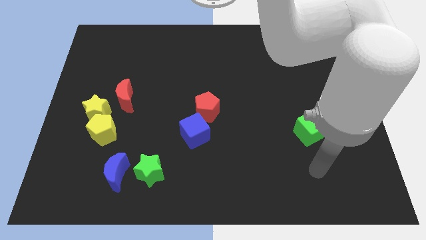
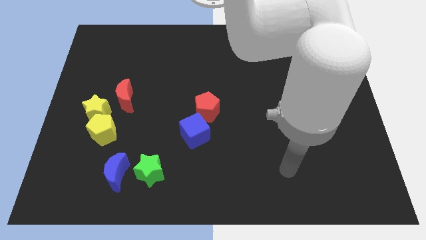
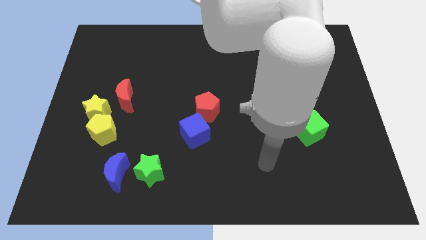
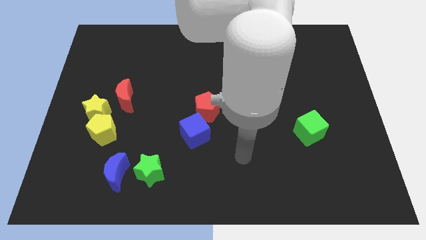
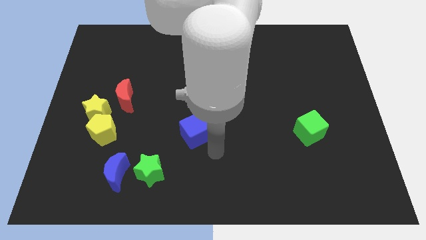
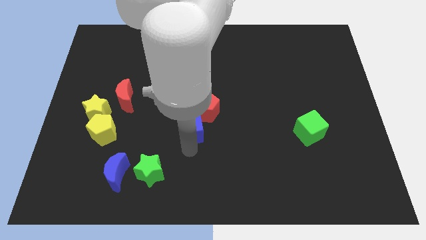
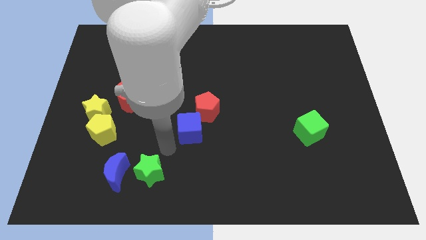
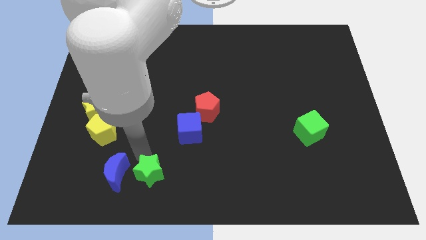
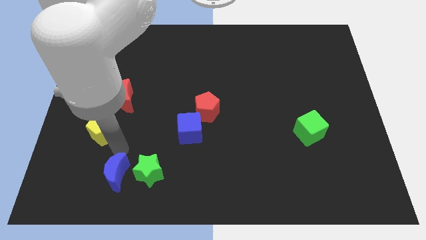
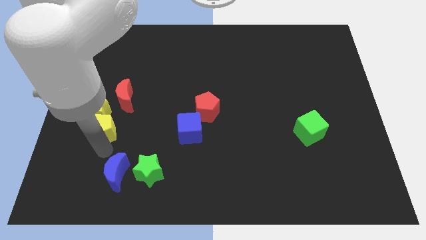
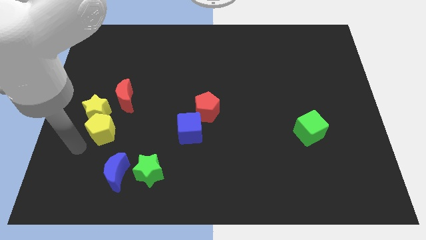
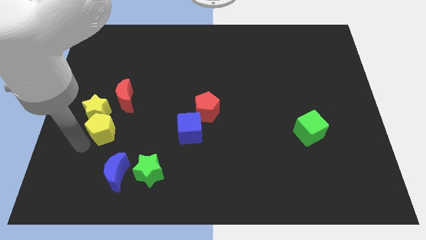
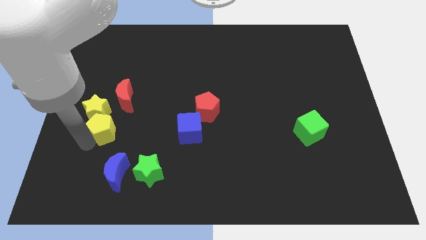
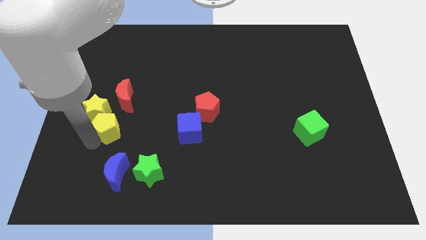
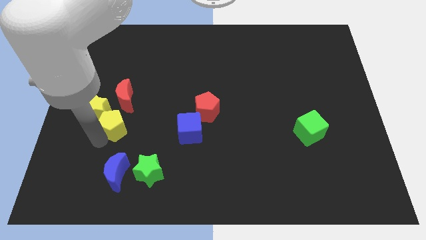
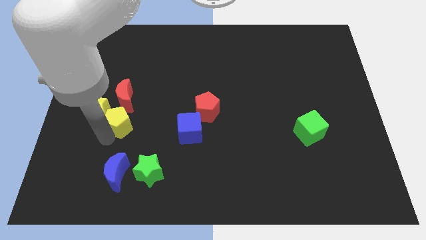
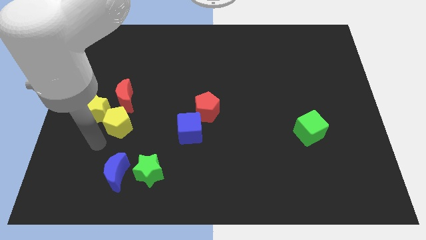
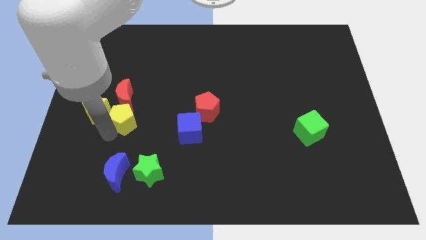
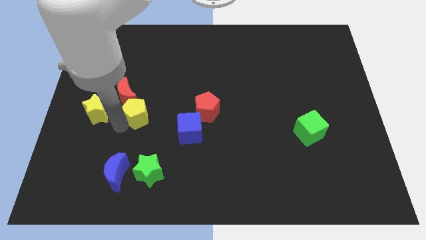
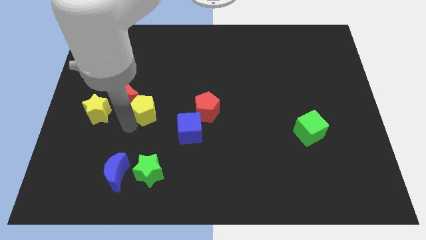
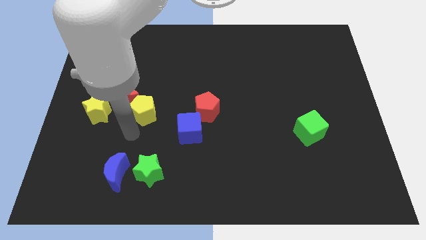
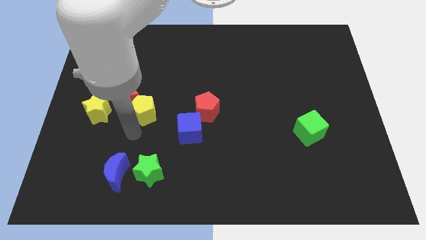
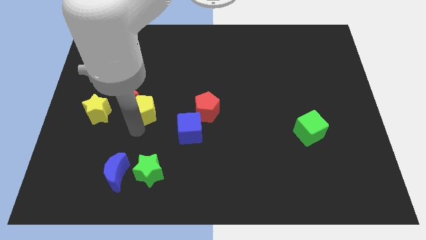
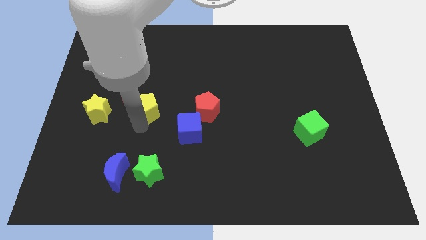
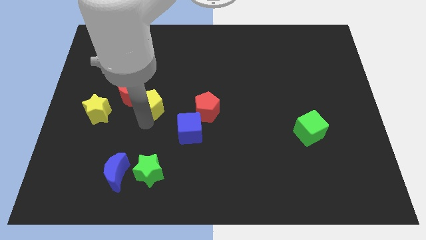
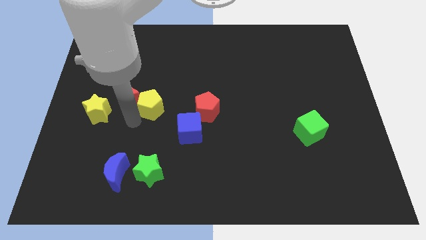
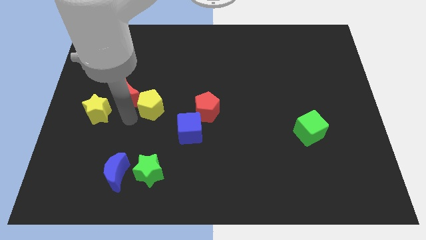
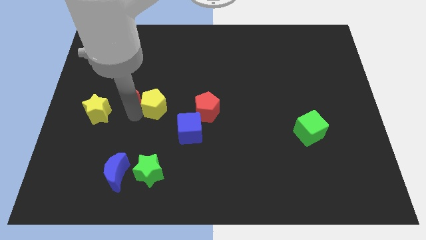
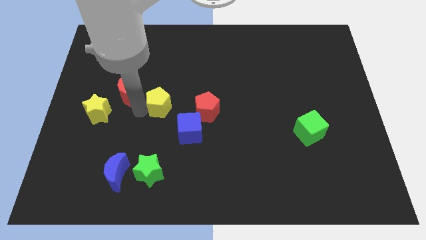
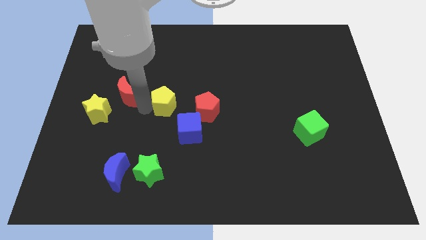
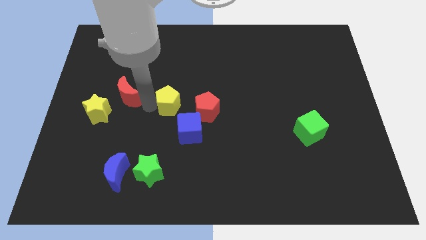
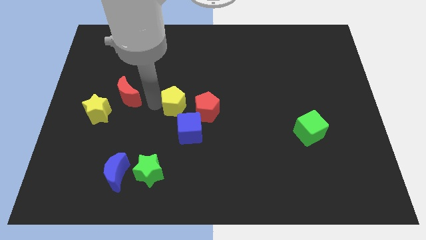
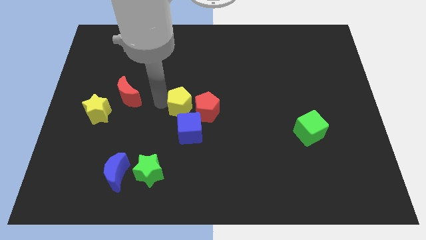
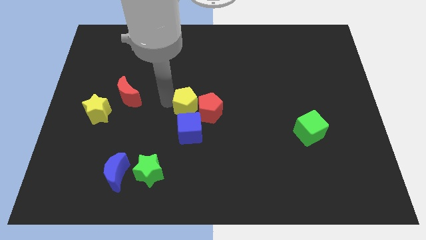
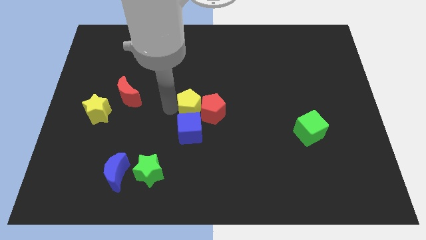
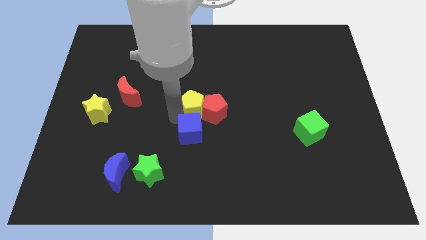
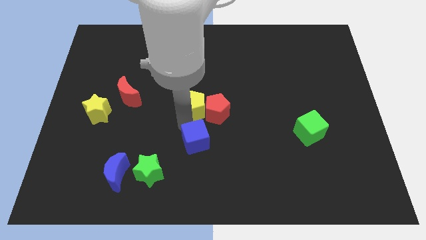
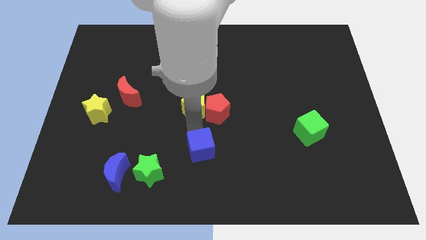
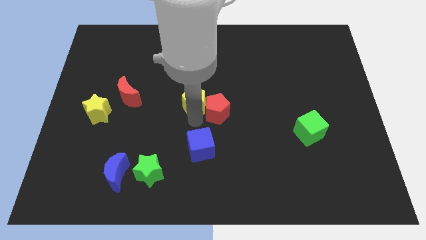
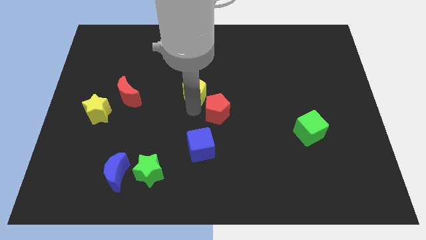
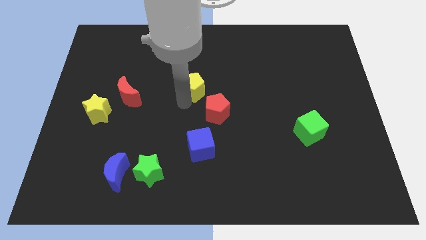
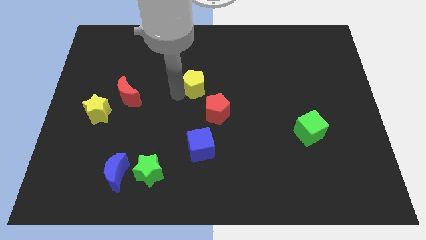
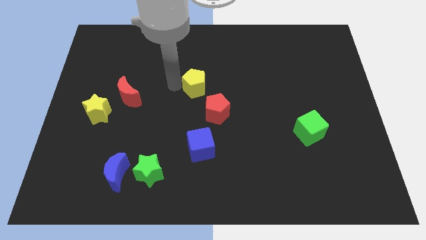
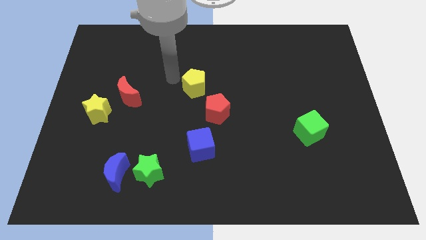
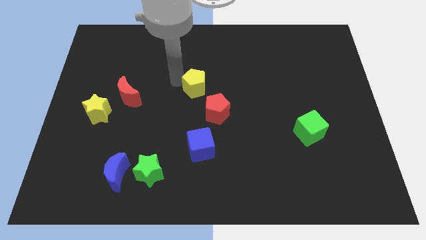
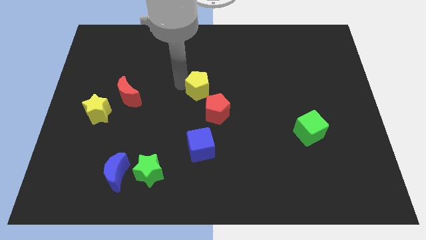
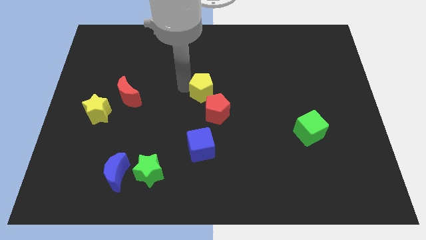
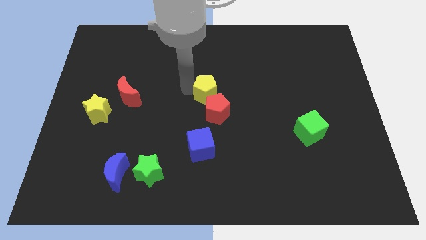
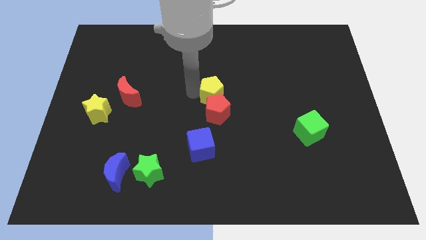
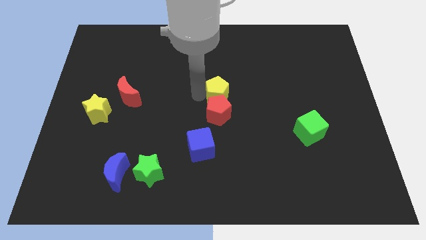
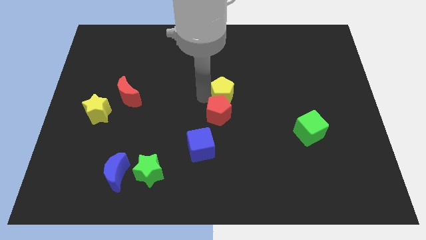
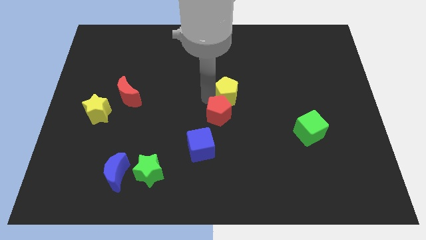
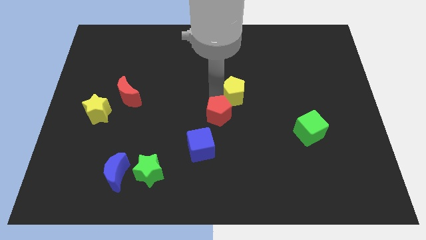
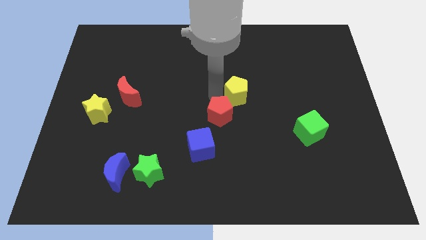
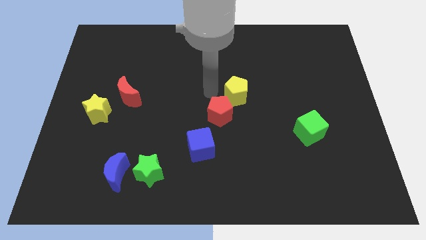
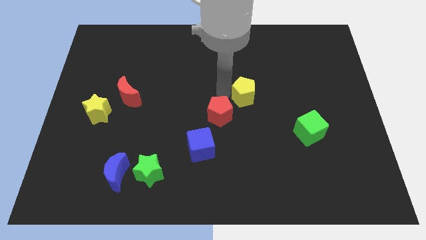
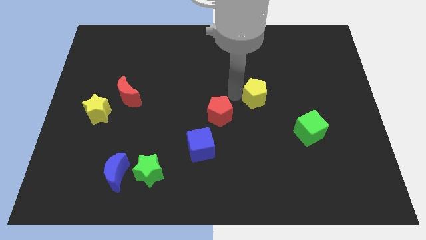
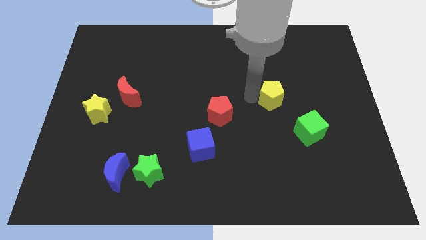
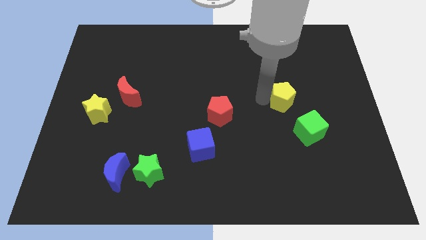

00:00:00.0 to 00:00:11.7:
push the yellow pentagon above the green cube

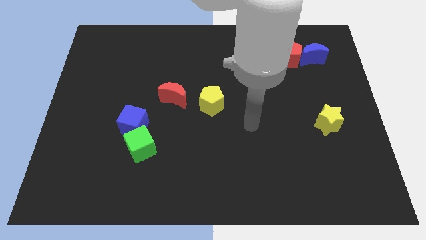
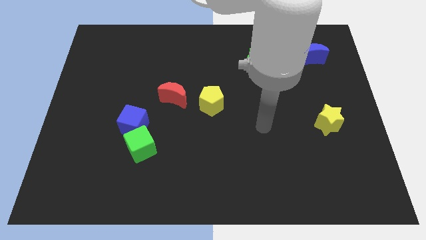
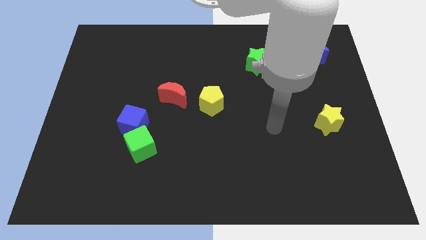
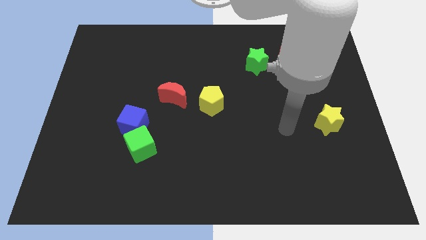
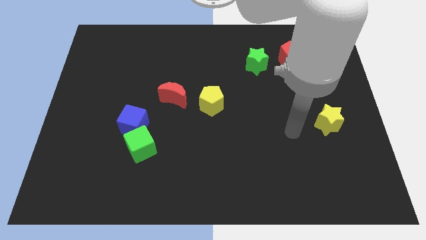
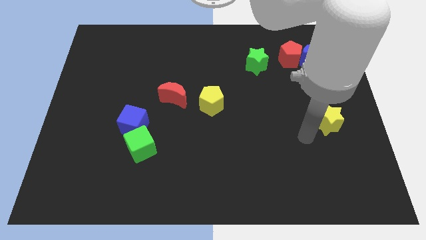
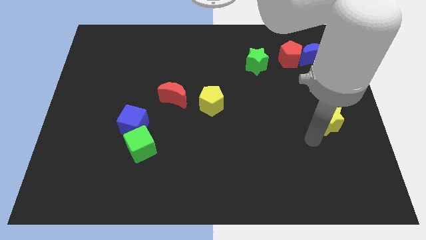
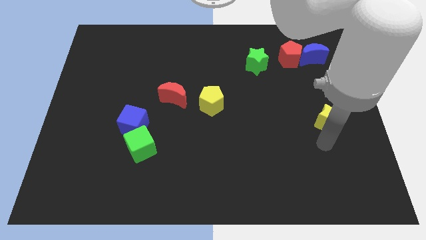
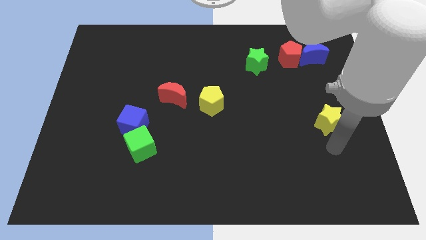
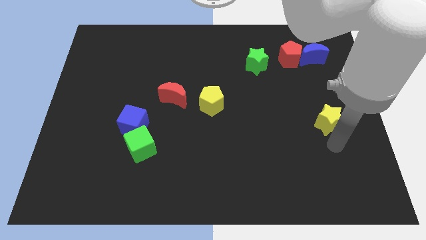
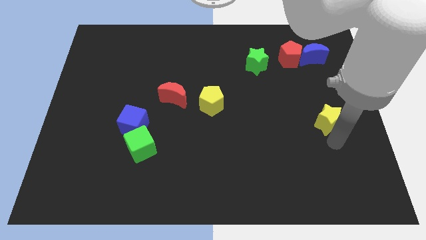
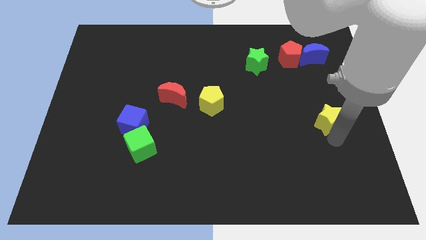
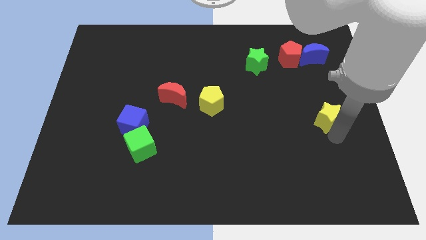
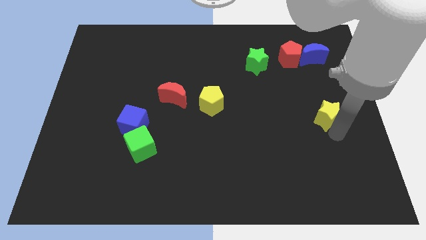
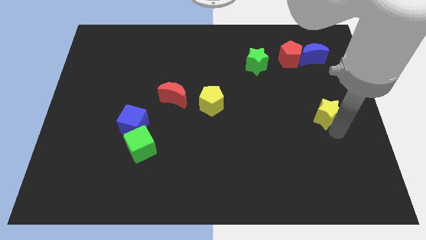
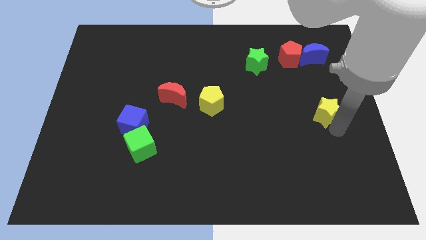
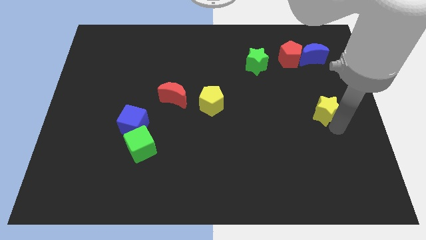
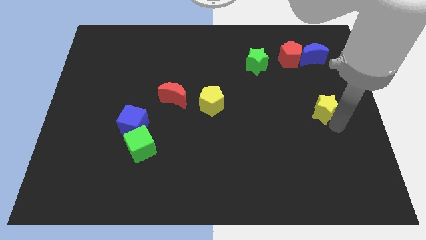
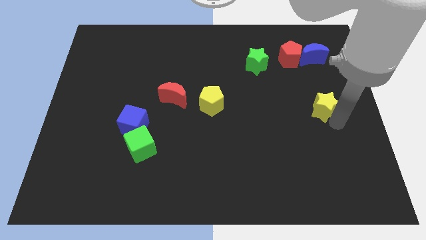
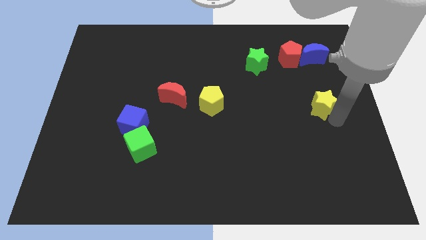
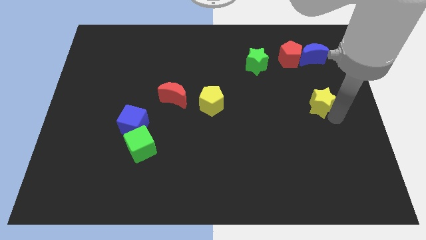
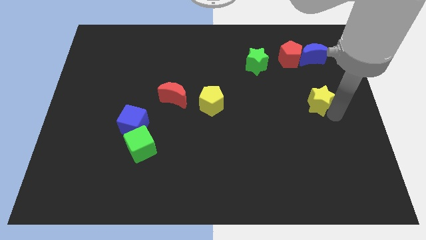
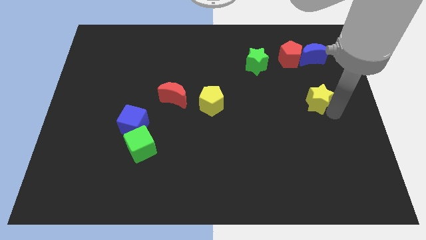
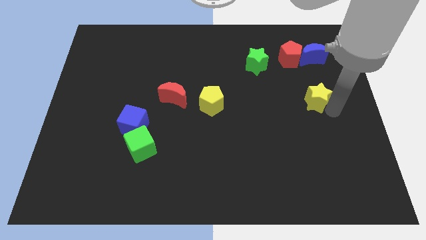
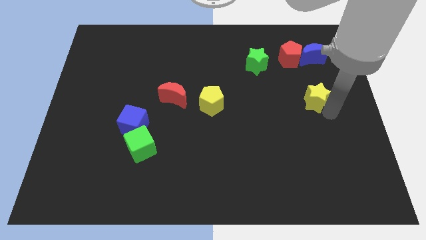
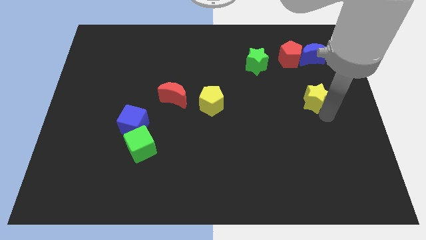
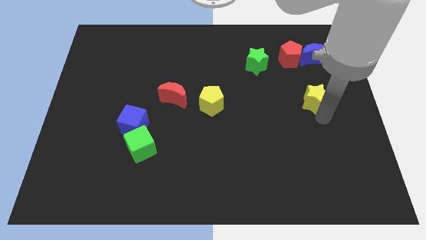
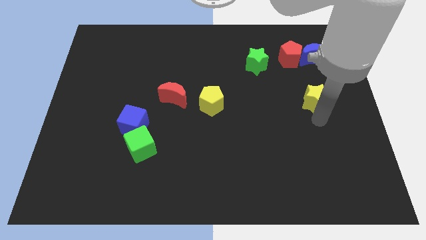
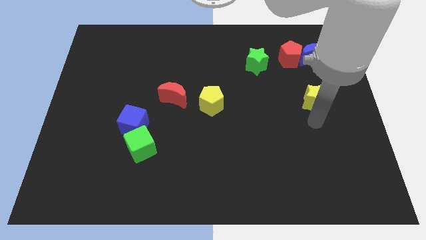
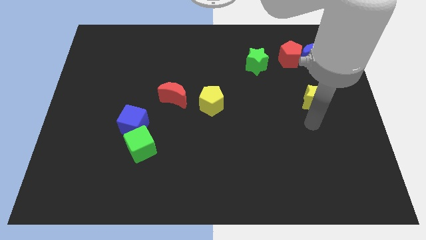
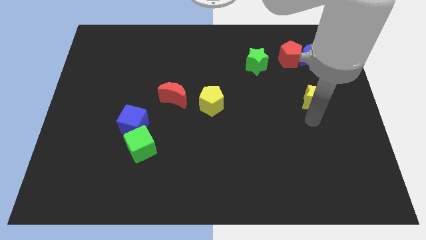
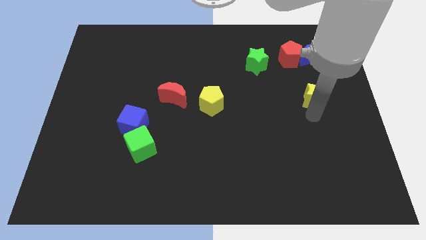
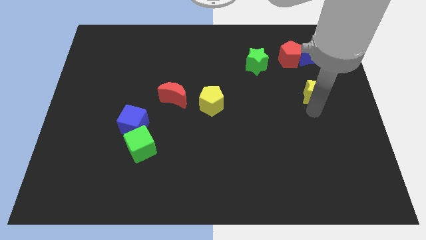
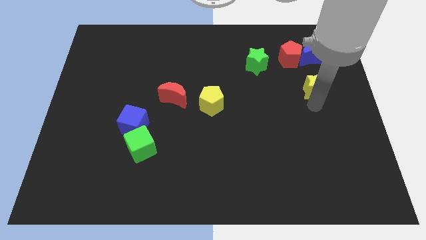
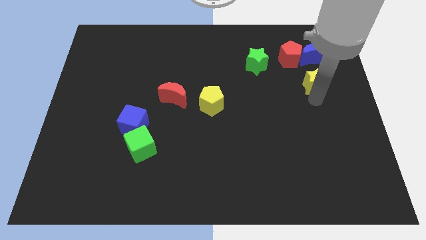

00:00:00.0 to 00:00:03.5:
move the yellow star to the bottom right of the red pentagon
